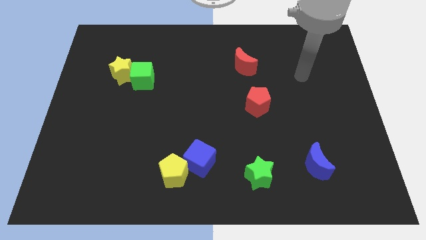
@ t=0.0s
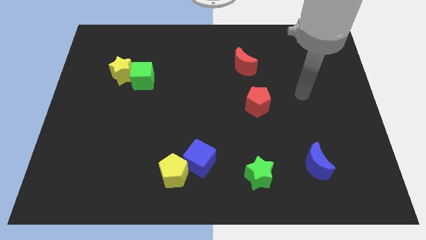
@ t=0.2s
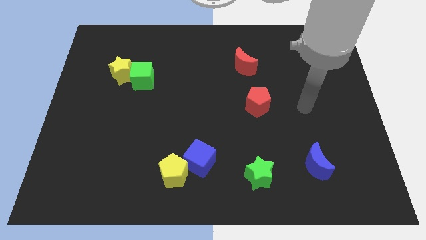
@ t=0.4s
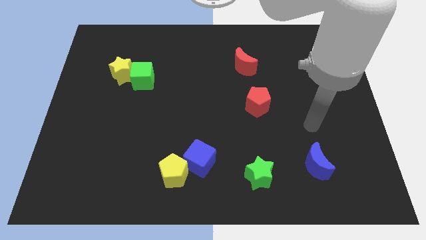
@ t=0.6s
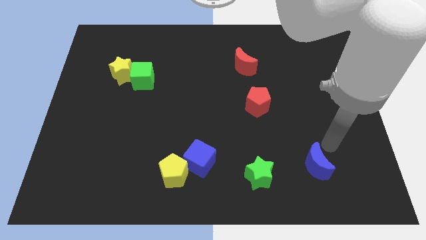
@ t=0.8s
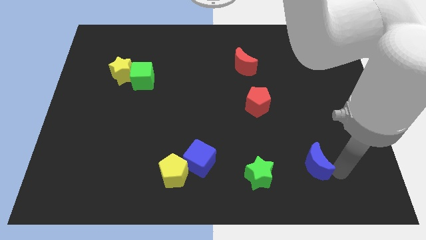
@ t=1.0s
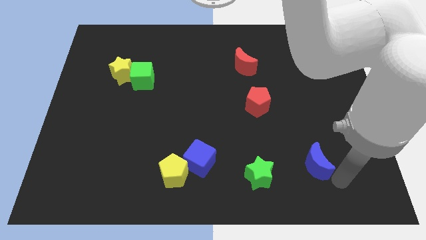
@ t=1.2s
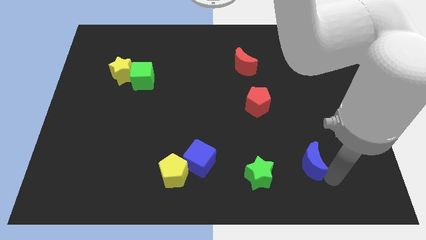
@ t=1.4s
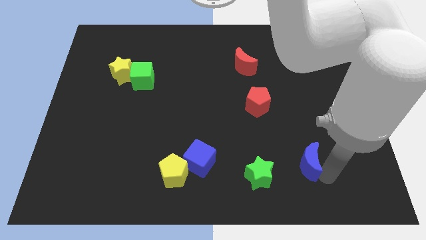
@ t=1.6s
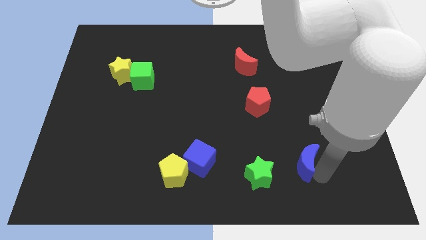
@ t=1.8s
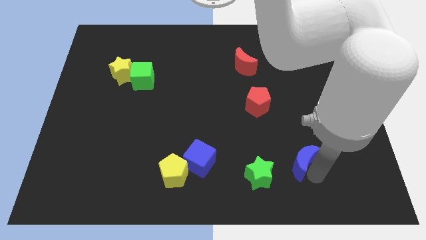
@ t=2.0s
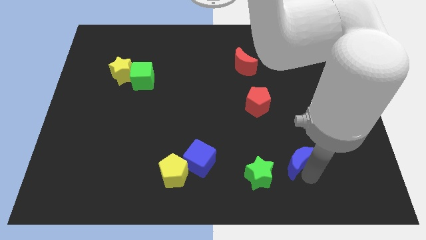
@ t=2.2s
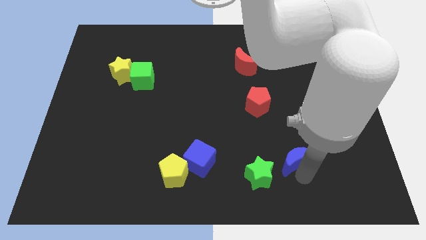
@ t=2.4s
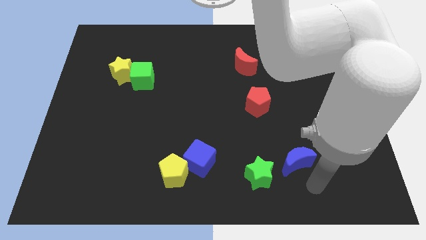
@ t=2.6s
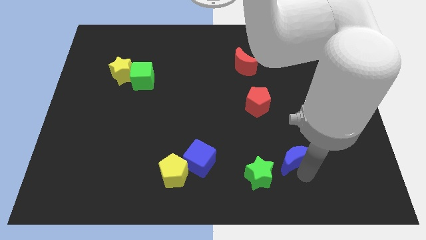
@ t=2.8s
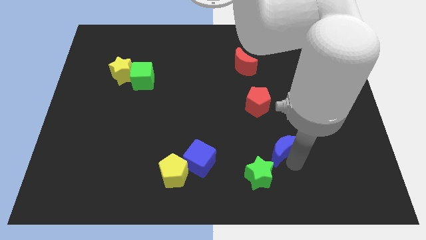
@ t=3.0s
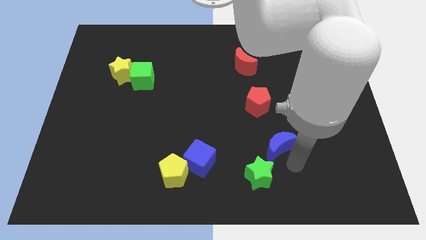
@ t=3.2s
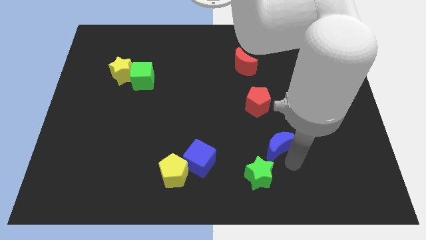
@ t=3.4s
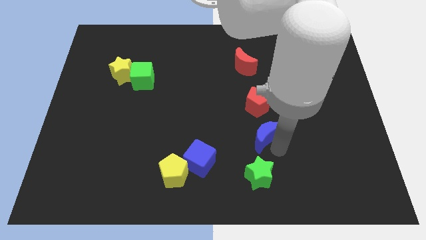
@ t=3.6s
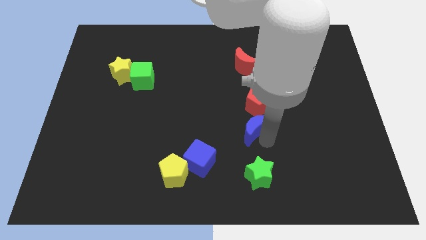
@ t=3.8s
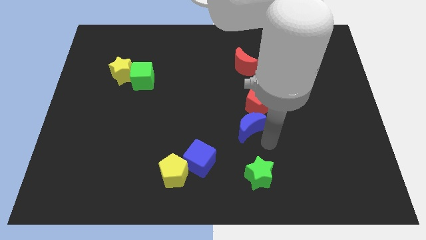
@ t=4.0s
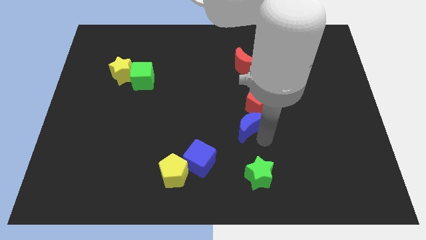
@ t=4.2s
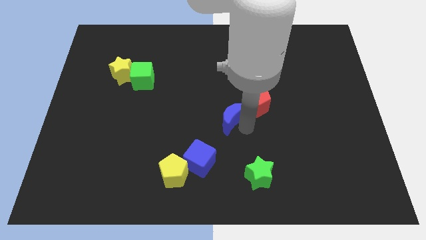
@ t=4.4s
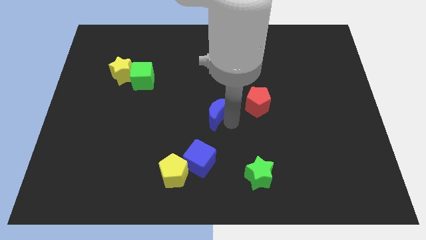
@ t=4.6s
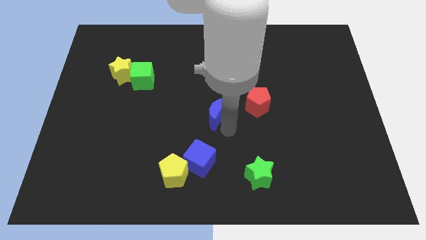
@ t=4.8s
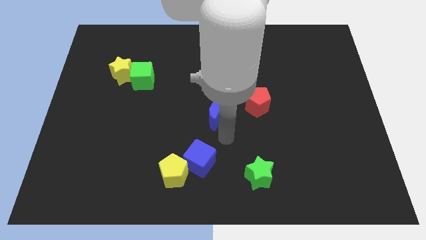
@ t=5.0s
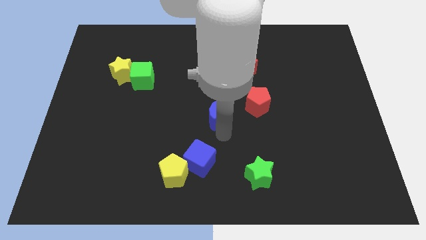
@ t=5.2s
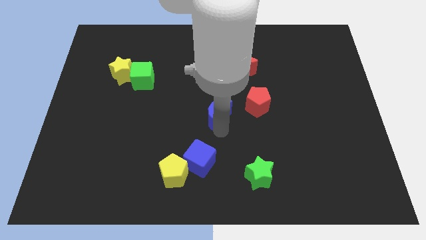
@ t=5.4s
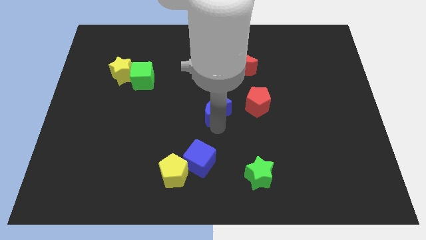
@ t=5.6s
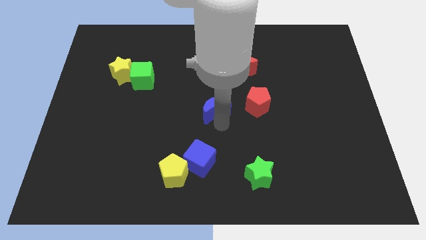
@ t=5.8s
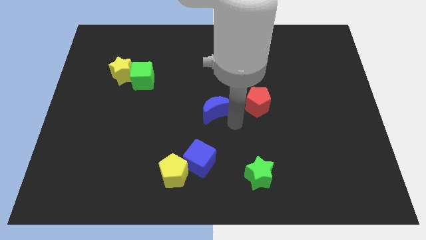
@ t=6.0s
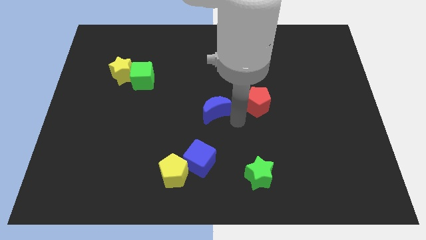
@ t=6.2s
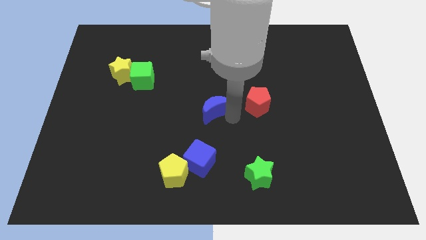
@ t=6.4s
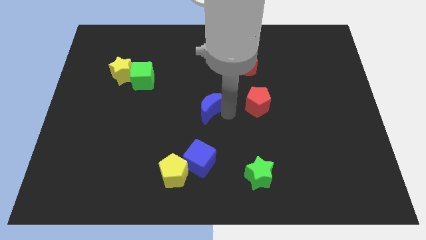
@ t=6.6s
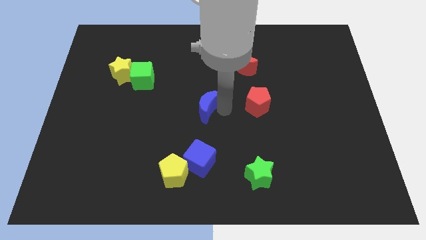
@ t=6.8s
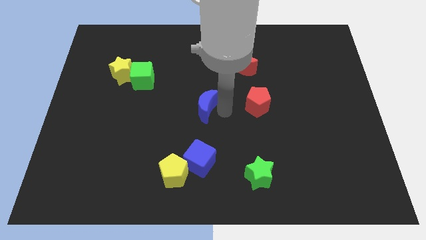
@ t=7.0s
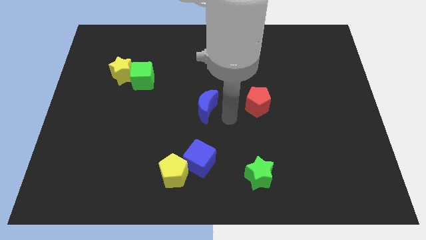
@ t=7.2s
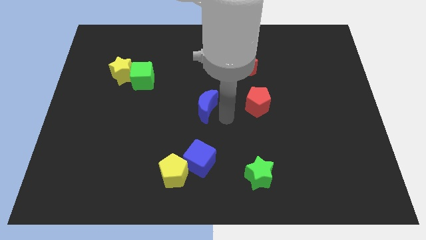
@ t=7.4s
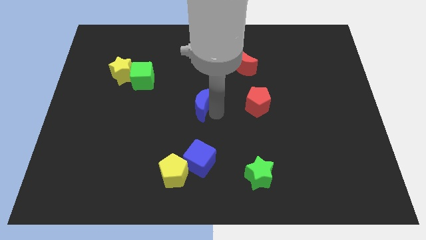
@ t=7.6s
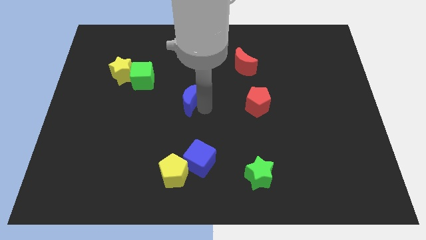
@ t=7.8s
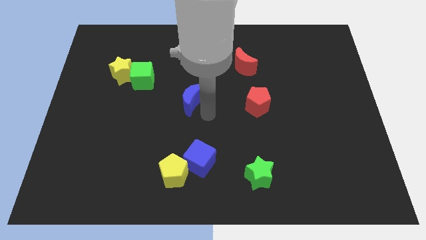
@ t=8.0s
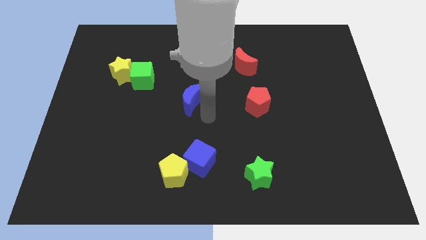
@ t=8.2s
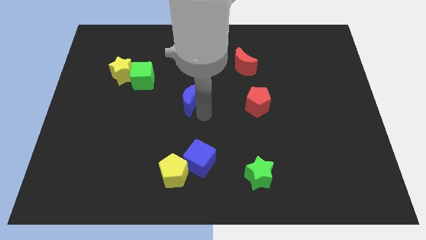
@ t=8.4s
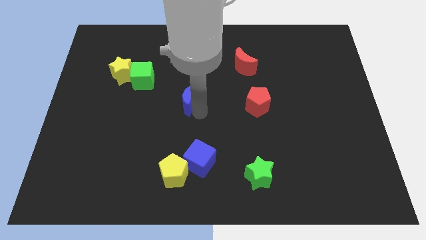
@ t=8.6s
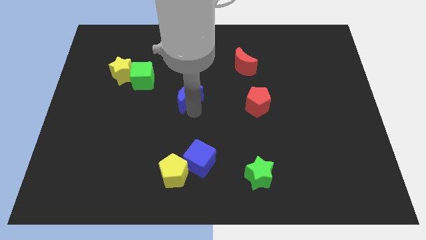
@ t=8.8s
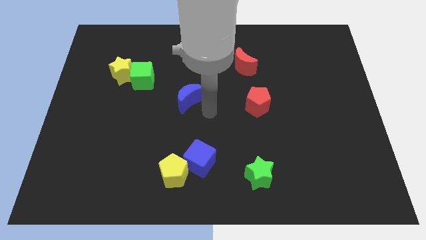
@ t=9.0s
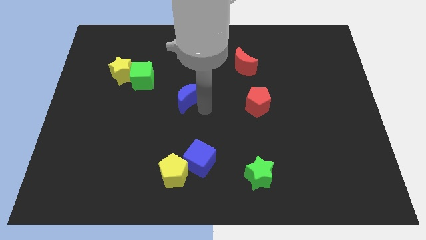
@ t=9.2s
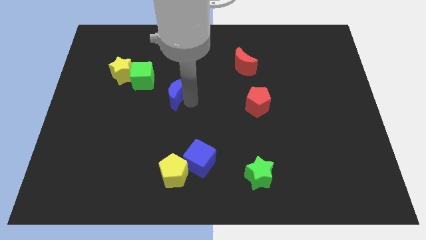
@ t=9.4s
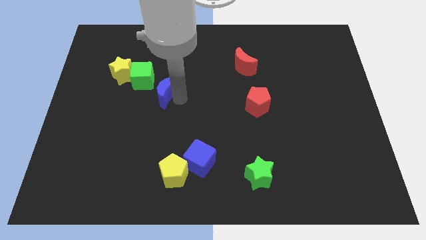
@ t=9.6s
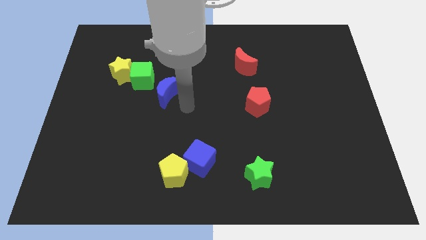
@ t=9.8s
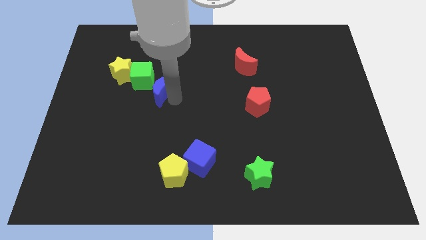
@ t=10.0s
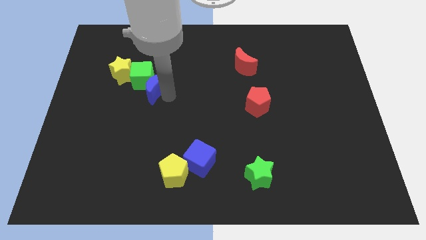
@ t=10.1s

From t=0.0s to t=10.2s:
push the blue moon close to the green cube

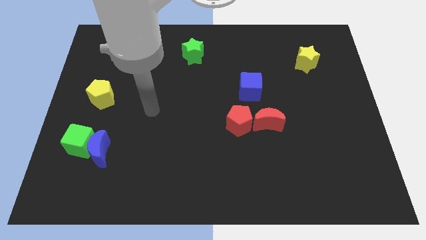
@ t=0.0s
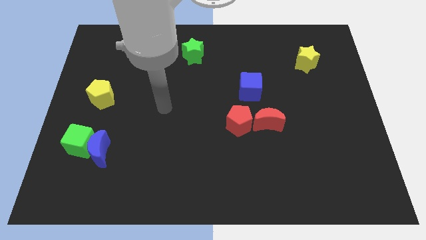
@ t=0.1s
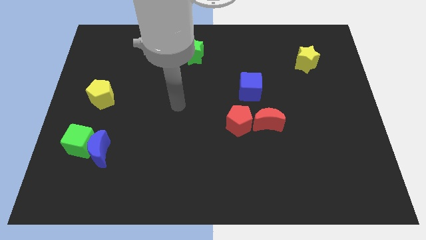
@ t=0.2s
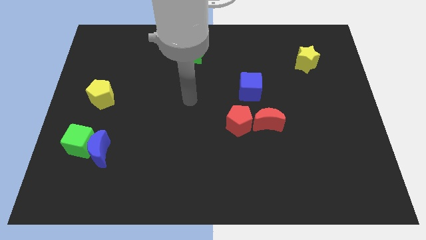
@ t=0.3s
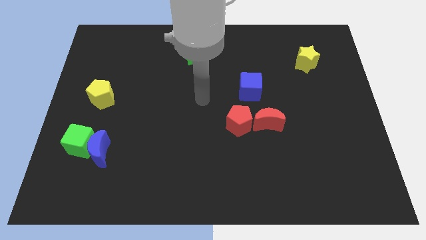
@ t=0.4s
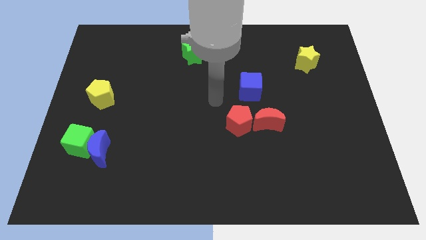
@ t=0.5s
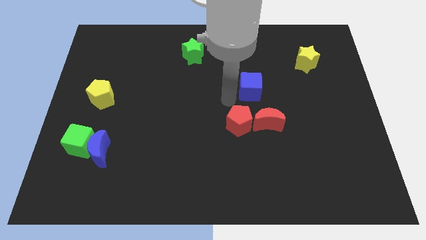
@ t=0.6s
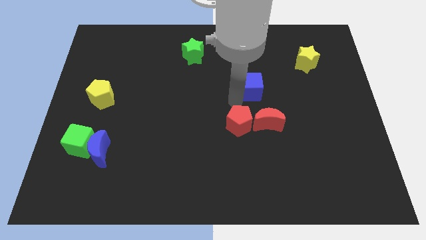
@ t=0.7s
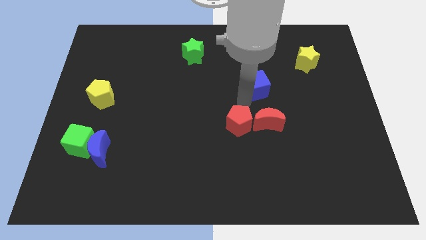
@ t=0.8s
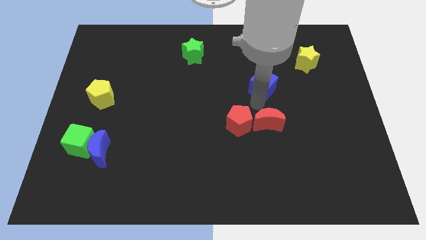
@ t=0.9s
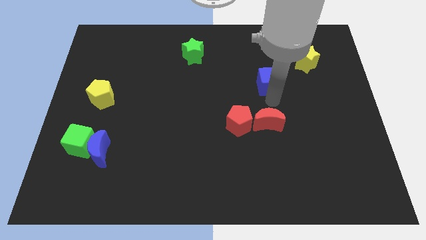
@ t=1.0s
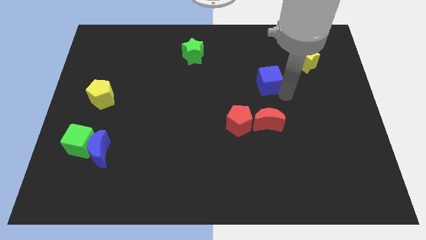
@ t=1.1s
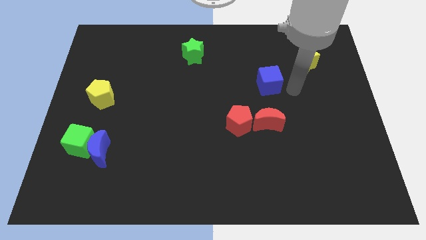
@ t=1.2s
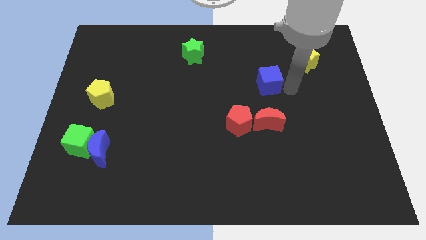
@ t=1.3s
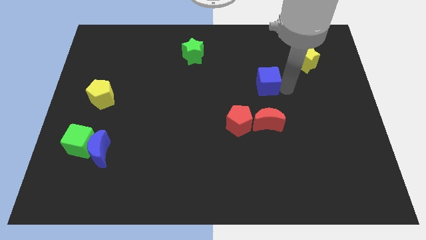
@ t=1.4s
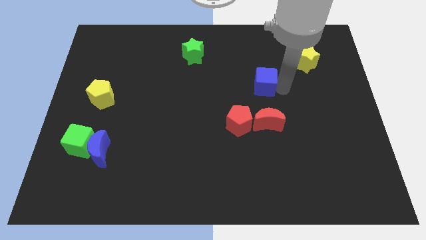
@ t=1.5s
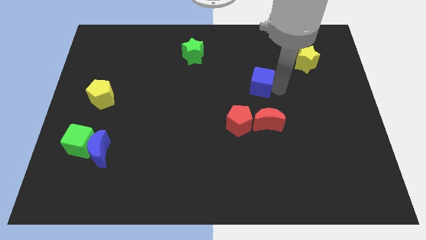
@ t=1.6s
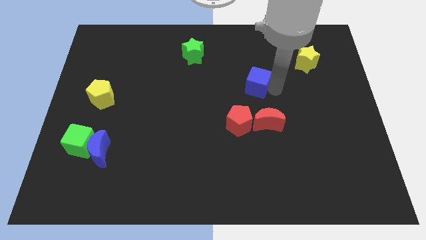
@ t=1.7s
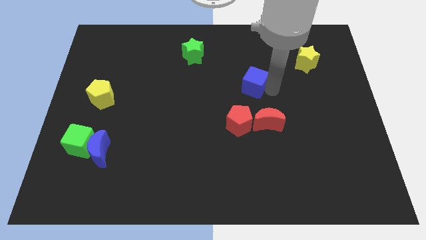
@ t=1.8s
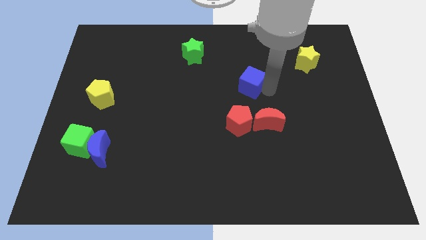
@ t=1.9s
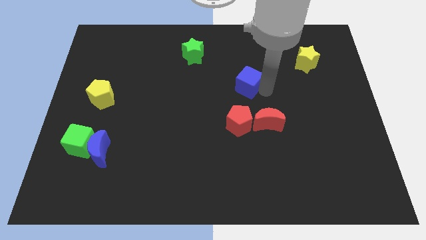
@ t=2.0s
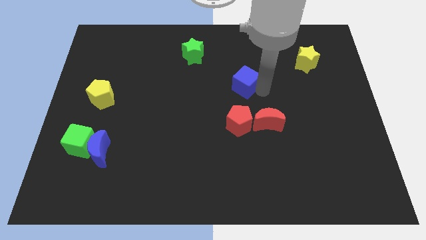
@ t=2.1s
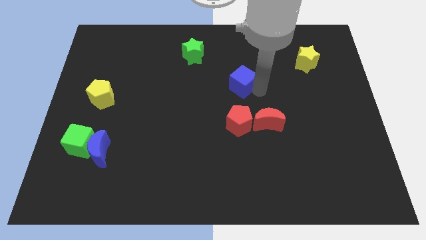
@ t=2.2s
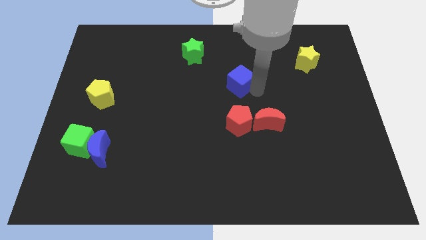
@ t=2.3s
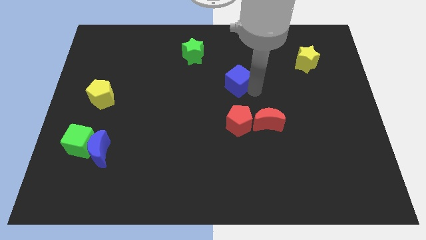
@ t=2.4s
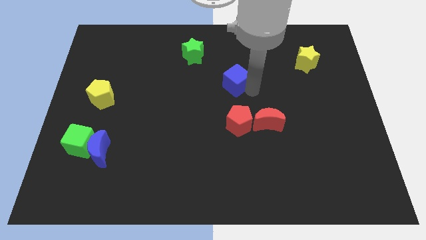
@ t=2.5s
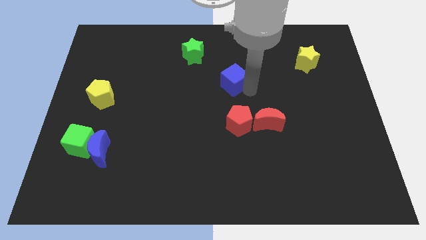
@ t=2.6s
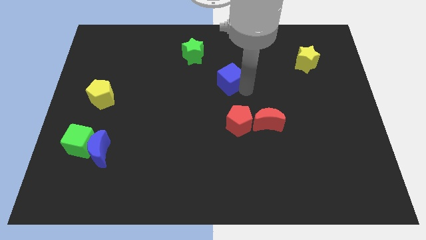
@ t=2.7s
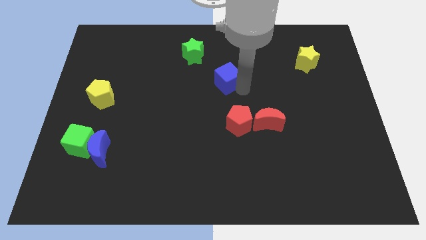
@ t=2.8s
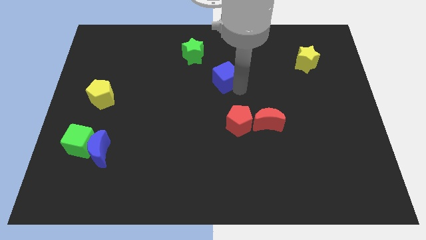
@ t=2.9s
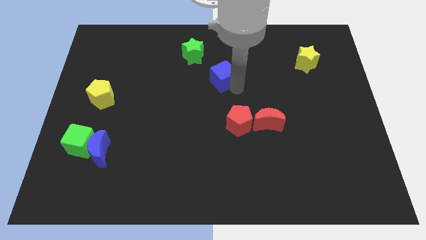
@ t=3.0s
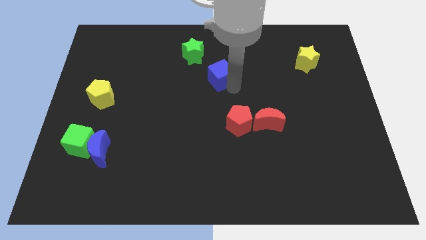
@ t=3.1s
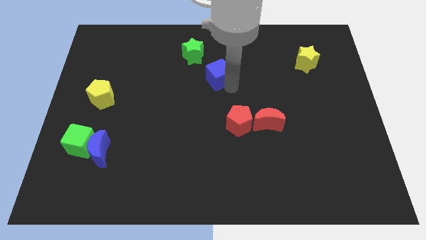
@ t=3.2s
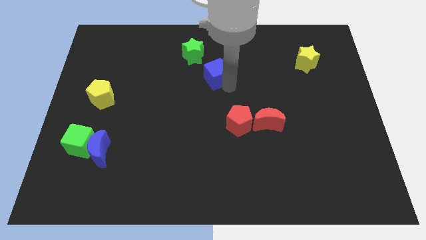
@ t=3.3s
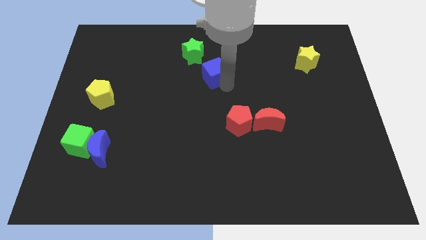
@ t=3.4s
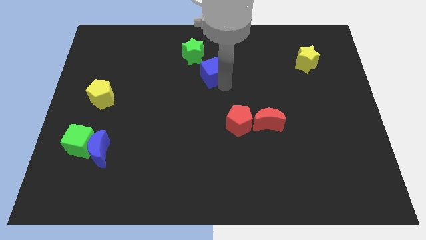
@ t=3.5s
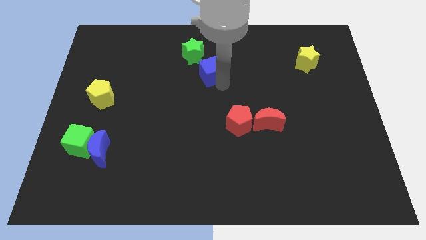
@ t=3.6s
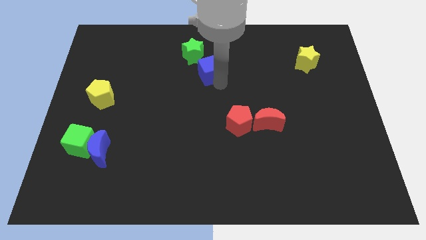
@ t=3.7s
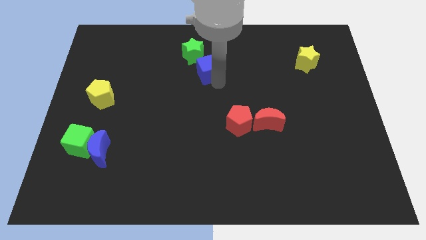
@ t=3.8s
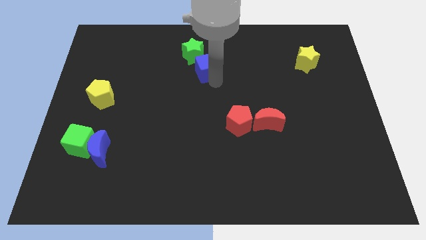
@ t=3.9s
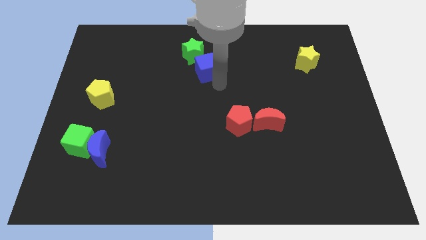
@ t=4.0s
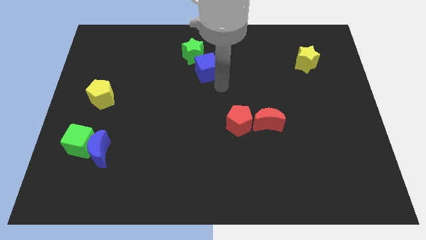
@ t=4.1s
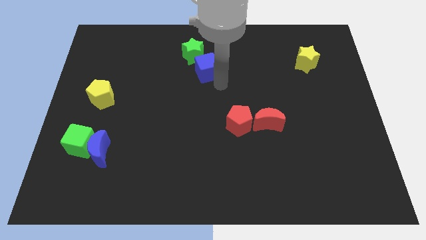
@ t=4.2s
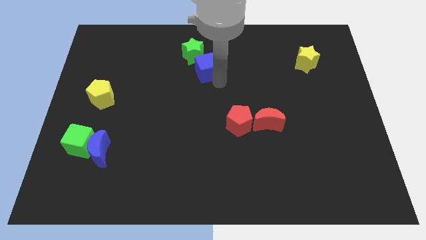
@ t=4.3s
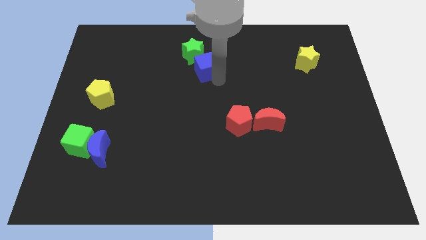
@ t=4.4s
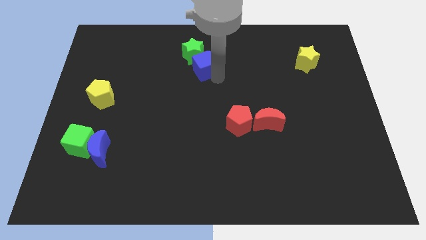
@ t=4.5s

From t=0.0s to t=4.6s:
move the blue cube towards the green star
